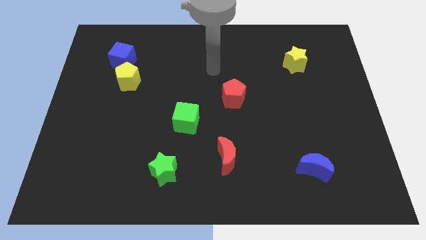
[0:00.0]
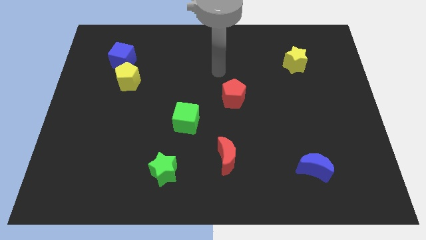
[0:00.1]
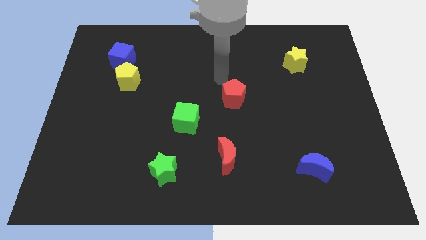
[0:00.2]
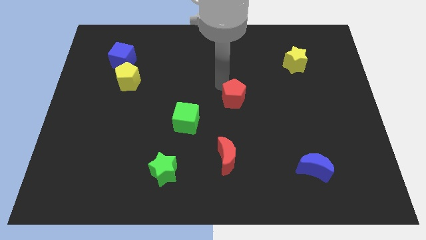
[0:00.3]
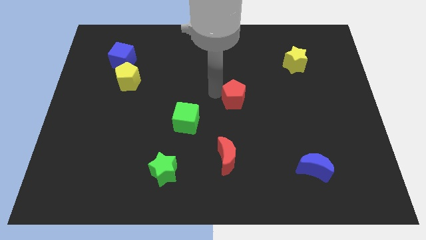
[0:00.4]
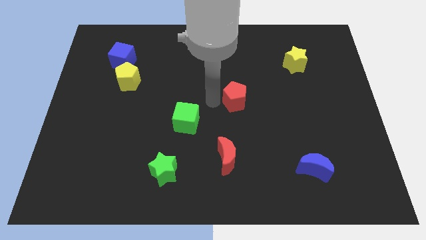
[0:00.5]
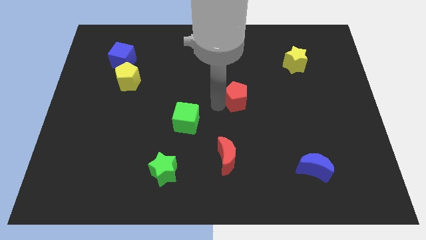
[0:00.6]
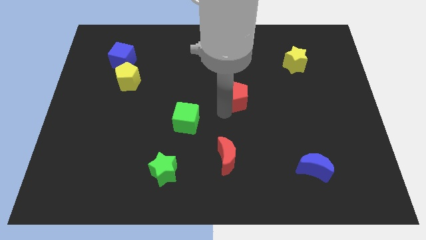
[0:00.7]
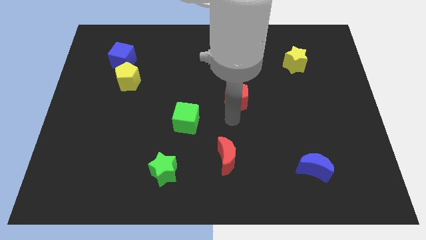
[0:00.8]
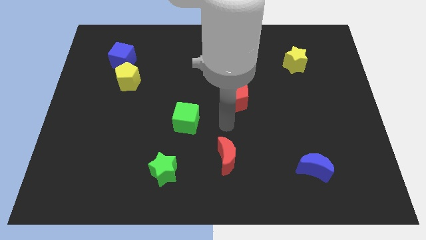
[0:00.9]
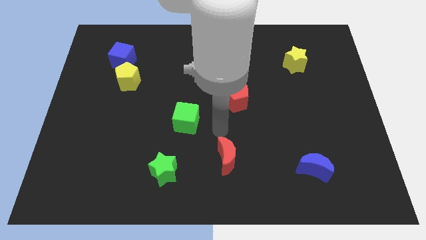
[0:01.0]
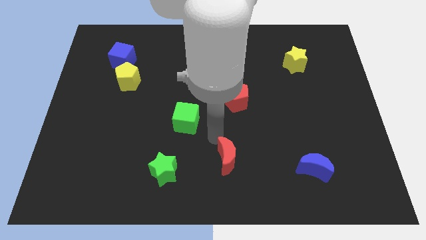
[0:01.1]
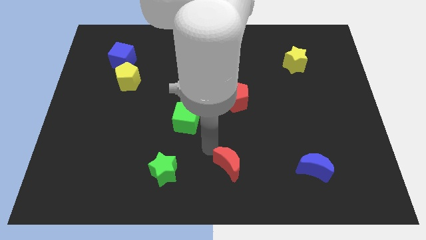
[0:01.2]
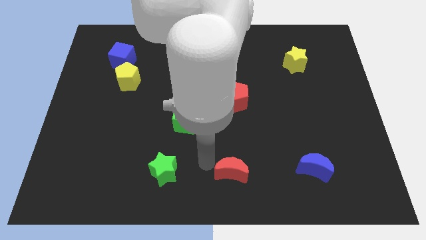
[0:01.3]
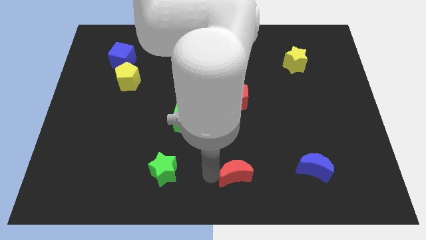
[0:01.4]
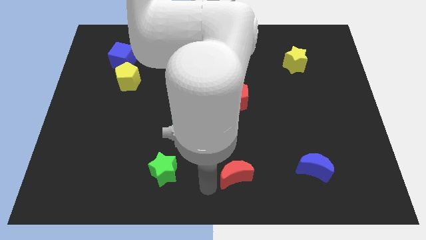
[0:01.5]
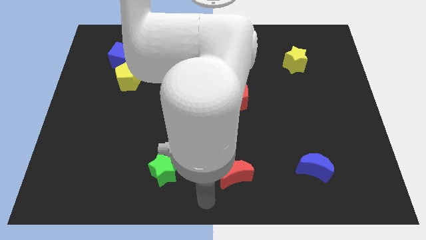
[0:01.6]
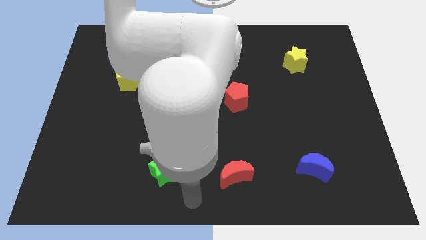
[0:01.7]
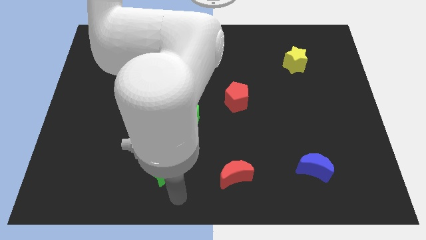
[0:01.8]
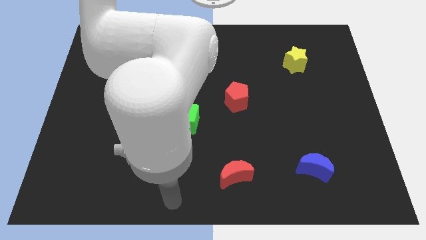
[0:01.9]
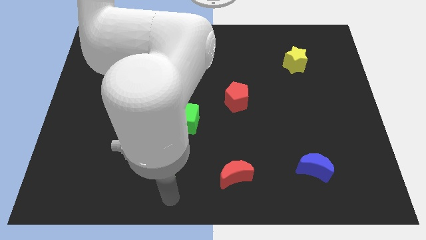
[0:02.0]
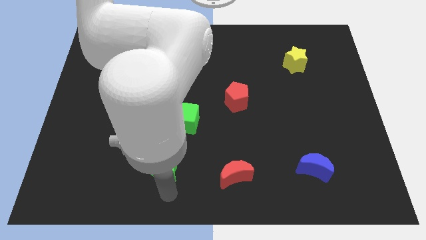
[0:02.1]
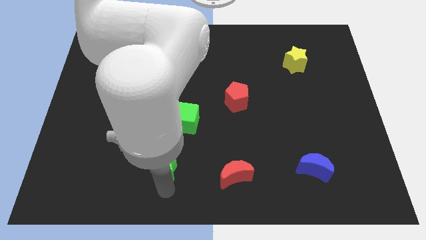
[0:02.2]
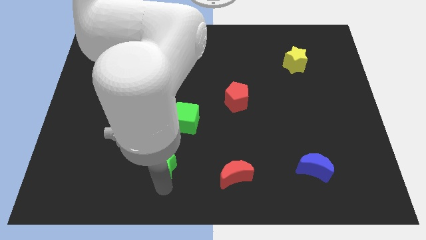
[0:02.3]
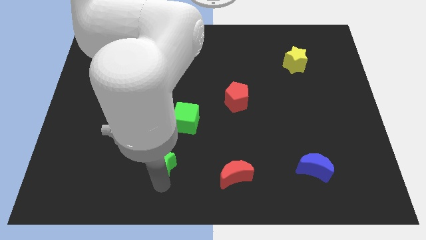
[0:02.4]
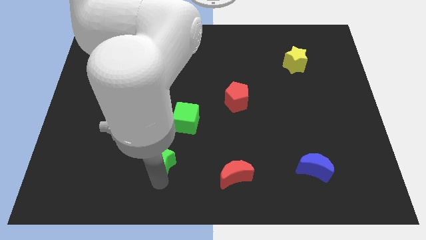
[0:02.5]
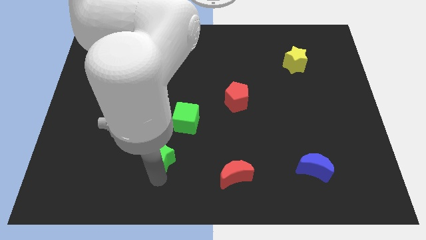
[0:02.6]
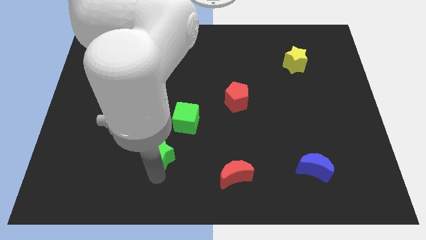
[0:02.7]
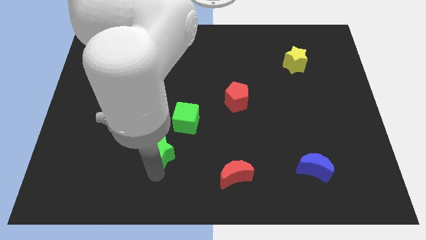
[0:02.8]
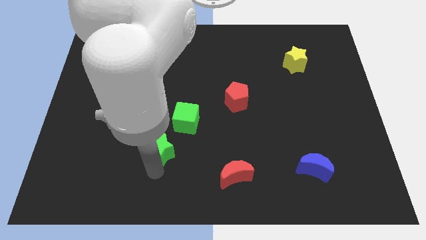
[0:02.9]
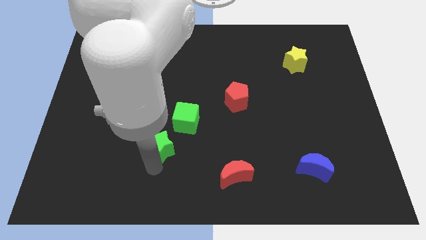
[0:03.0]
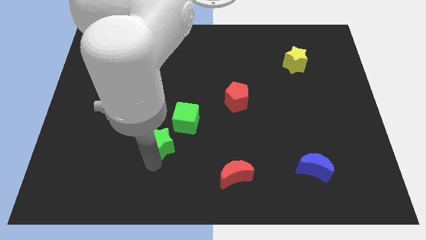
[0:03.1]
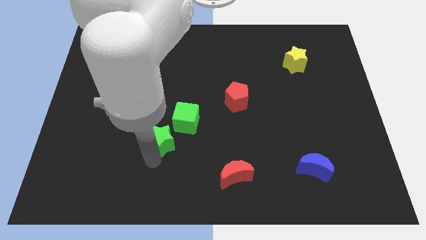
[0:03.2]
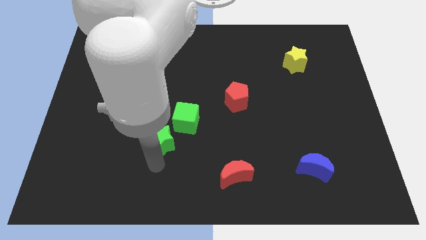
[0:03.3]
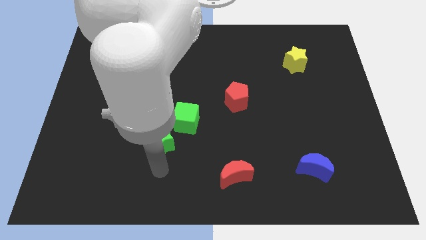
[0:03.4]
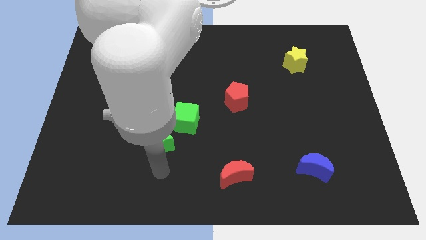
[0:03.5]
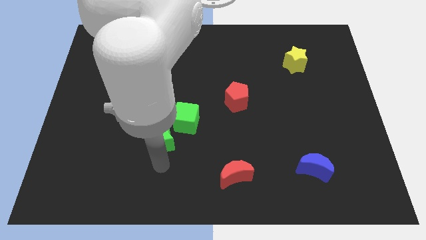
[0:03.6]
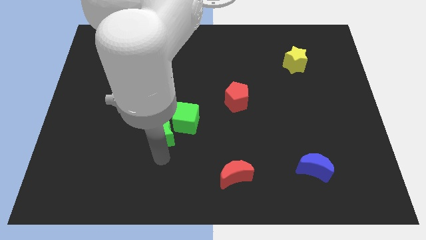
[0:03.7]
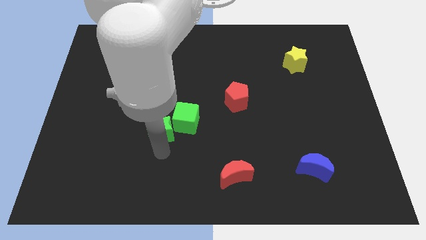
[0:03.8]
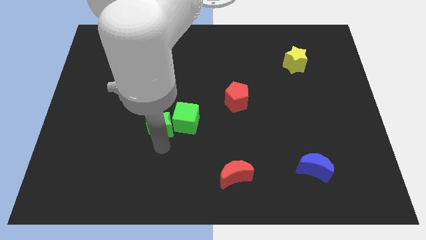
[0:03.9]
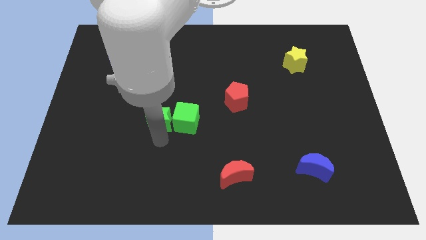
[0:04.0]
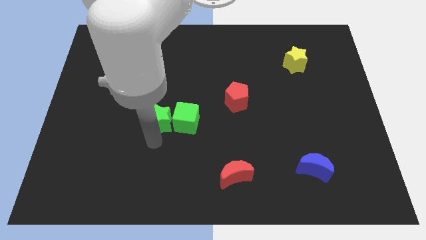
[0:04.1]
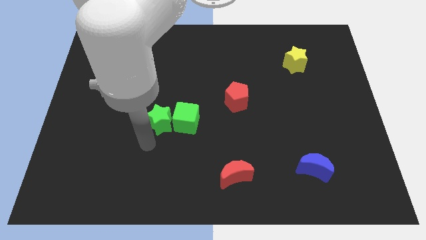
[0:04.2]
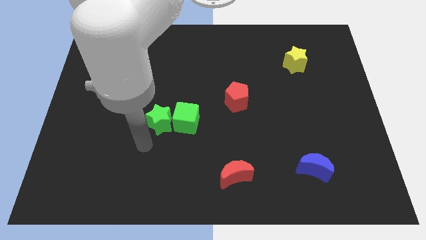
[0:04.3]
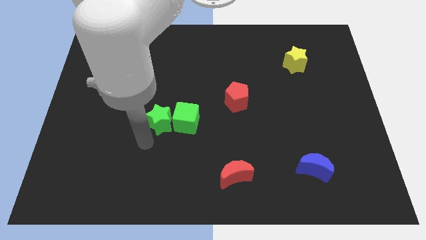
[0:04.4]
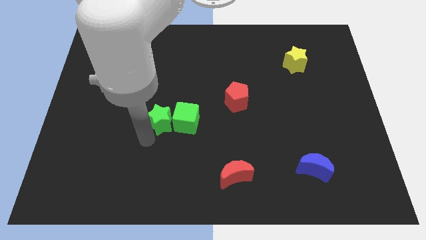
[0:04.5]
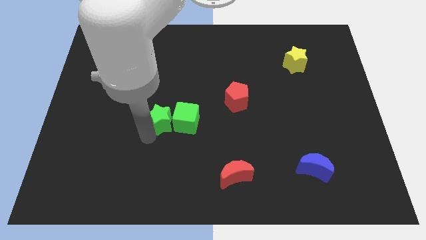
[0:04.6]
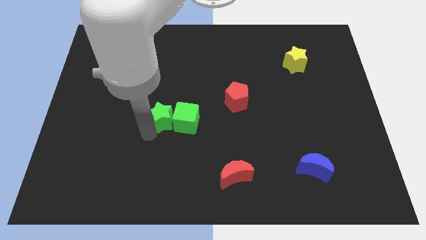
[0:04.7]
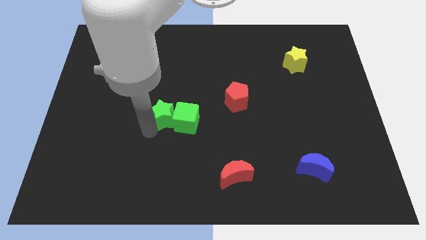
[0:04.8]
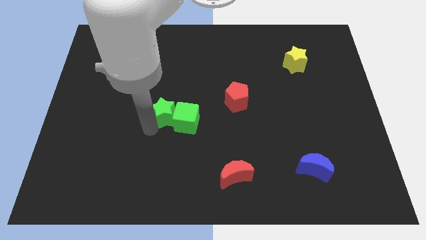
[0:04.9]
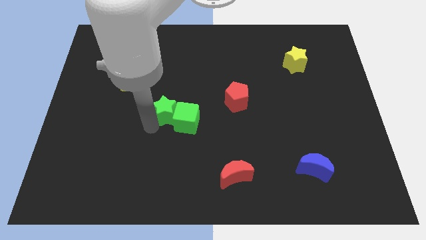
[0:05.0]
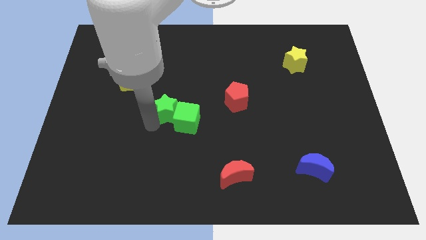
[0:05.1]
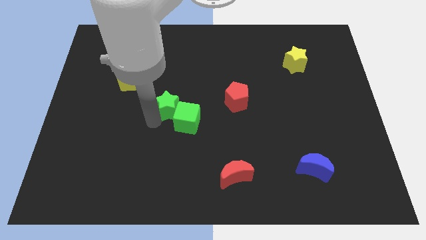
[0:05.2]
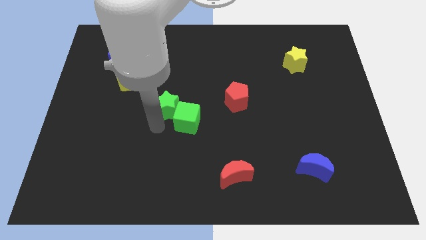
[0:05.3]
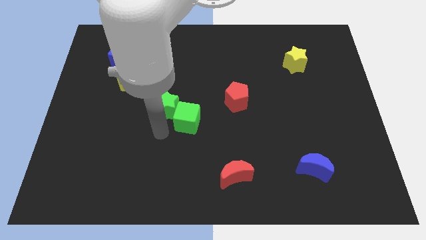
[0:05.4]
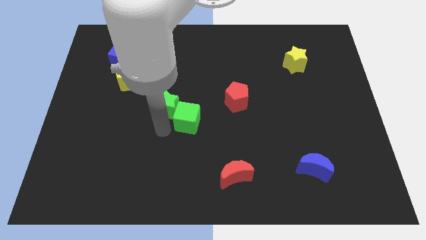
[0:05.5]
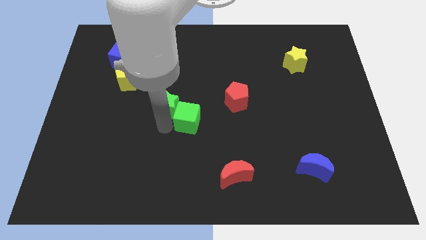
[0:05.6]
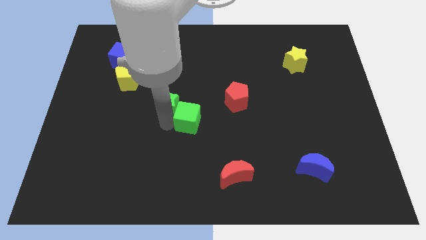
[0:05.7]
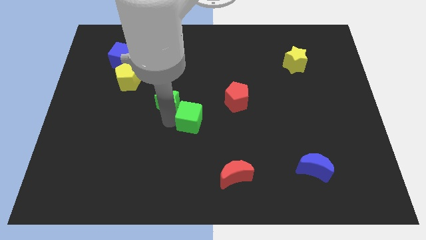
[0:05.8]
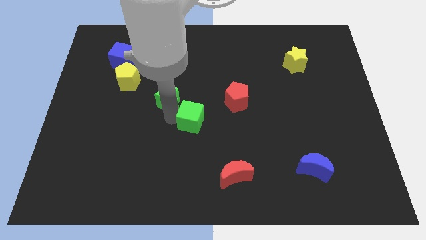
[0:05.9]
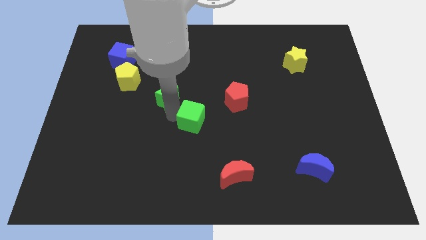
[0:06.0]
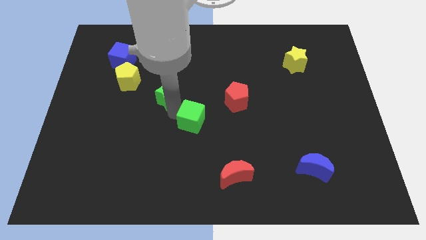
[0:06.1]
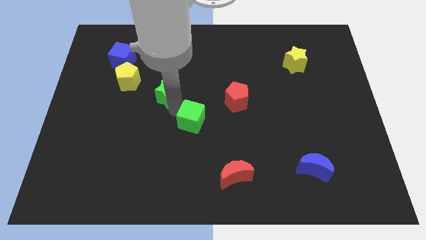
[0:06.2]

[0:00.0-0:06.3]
slide the green star upwards

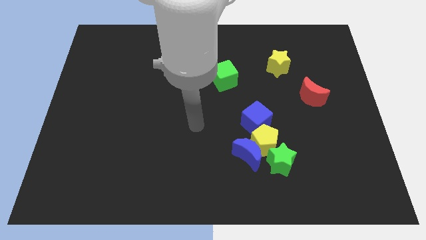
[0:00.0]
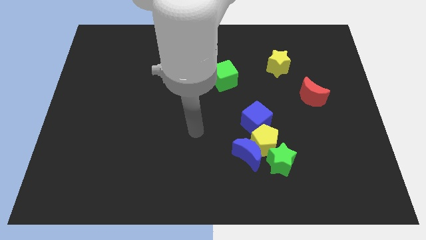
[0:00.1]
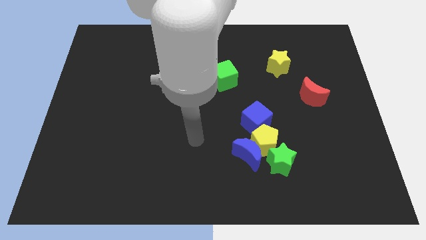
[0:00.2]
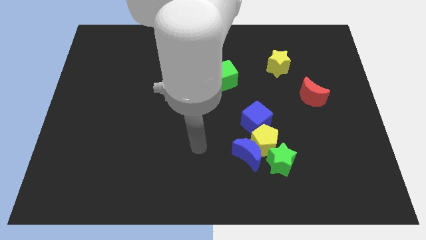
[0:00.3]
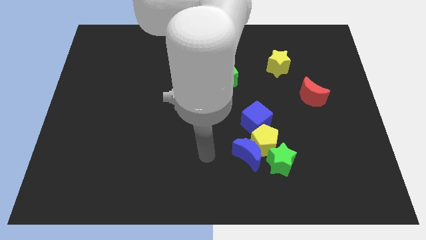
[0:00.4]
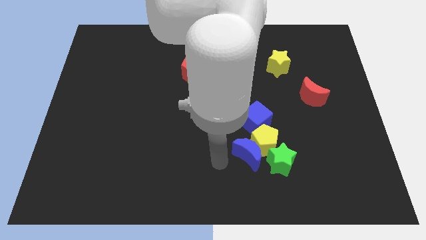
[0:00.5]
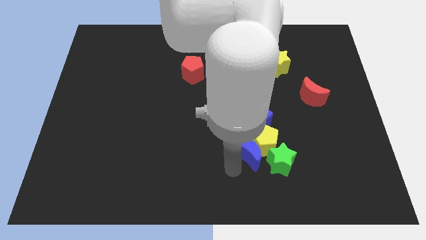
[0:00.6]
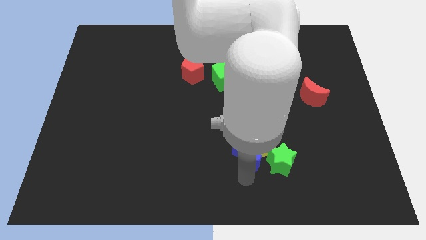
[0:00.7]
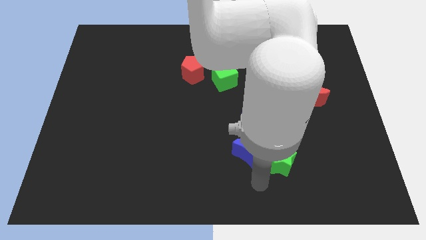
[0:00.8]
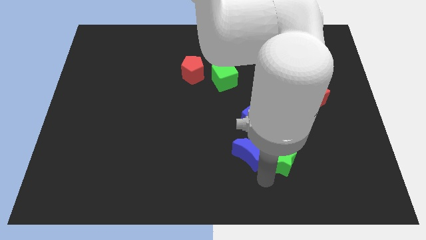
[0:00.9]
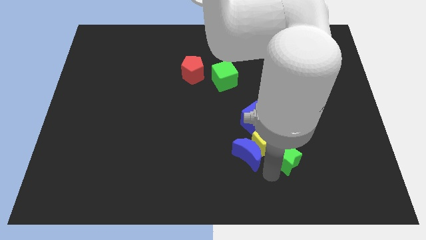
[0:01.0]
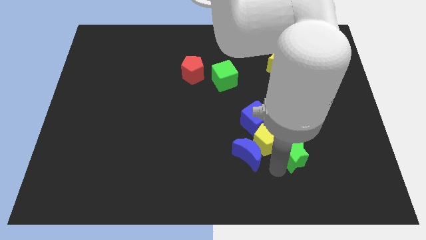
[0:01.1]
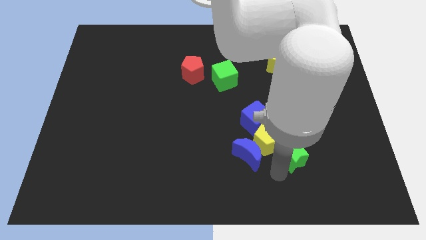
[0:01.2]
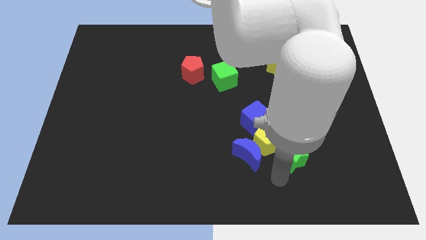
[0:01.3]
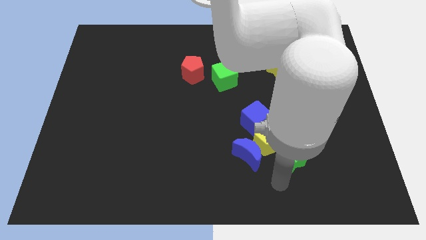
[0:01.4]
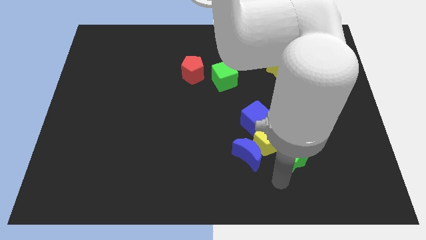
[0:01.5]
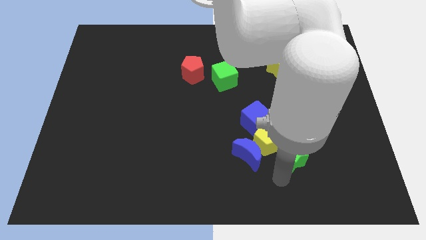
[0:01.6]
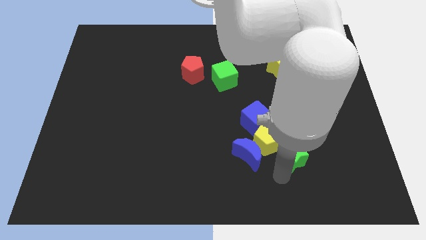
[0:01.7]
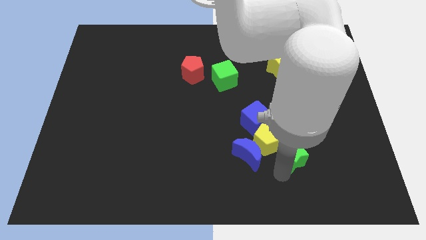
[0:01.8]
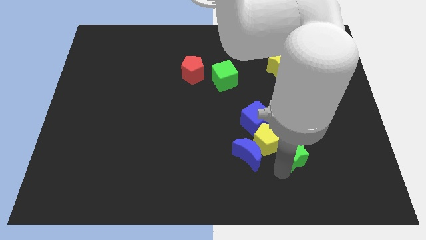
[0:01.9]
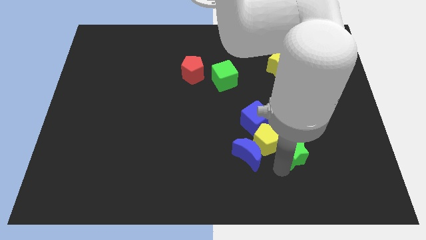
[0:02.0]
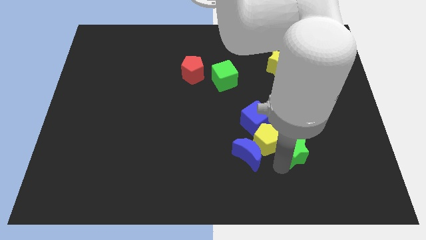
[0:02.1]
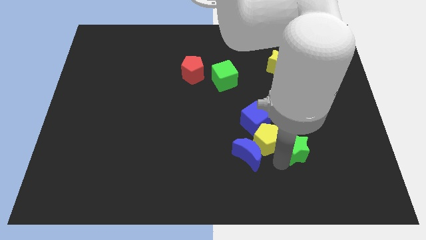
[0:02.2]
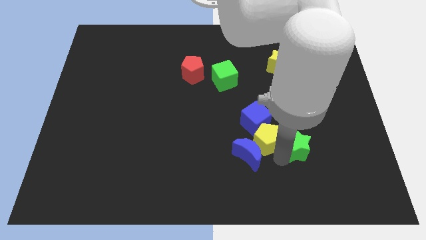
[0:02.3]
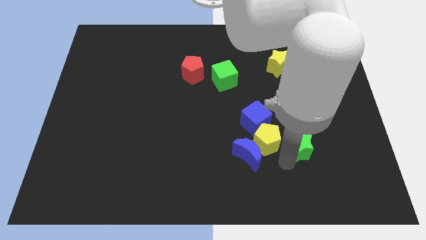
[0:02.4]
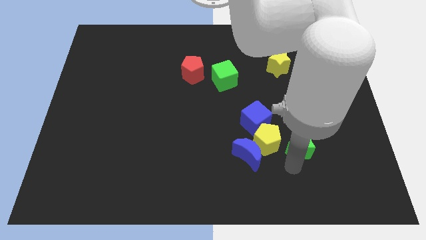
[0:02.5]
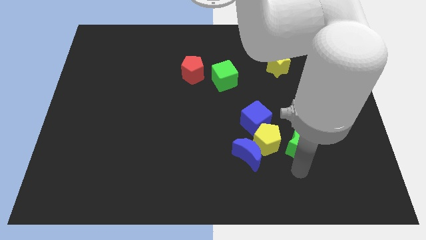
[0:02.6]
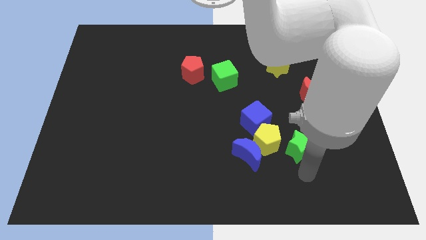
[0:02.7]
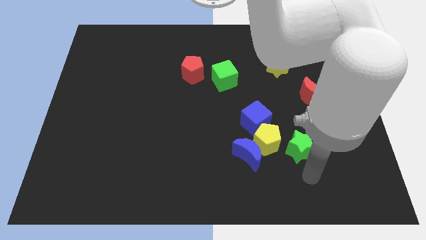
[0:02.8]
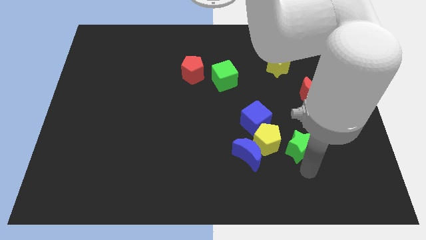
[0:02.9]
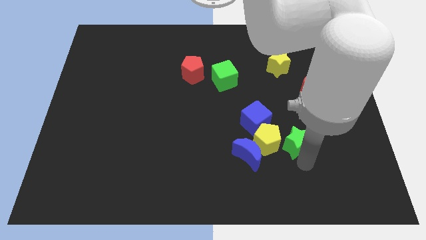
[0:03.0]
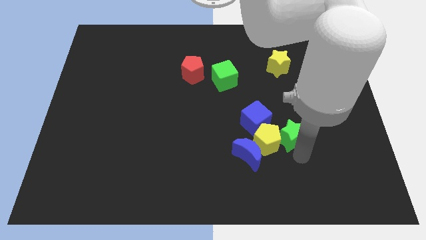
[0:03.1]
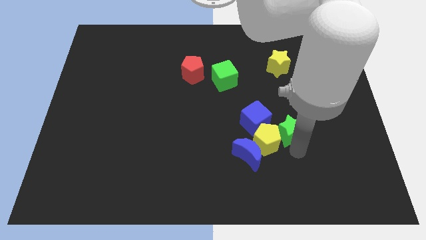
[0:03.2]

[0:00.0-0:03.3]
slightly move the green star up
